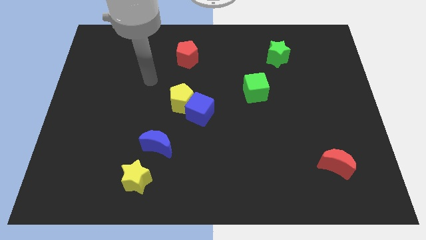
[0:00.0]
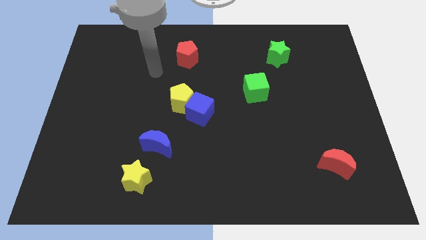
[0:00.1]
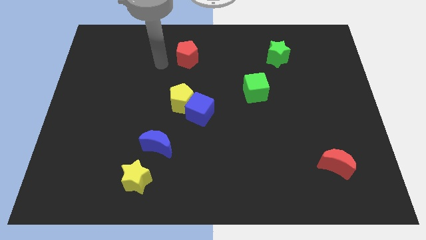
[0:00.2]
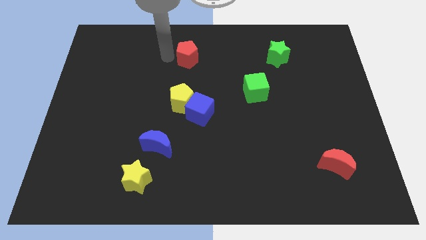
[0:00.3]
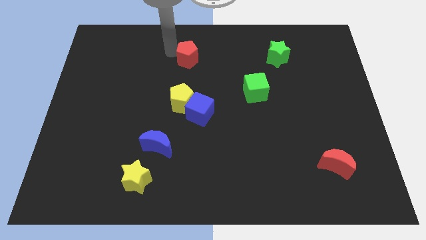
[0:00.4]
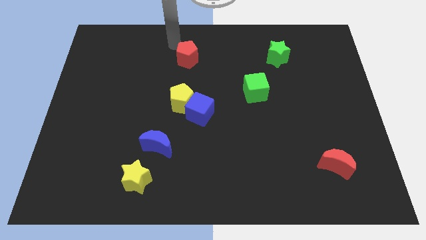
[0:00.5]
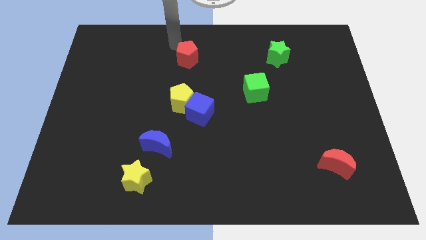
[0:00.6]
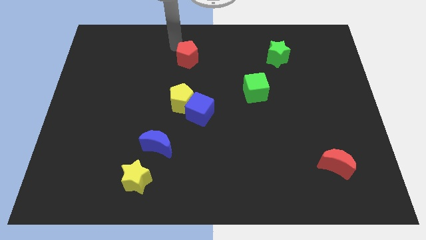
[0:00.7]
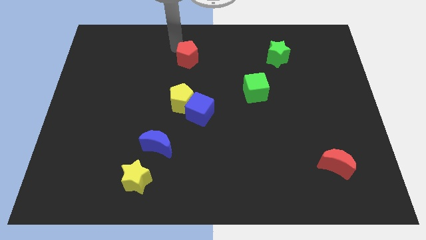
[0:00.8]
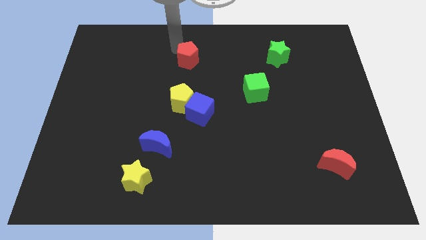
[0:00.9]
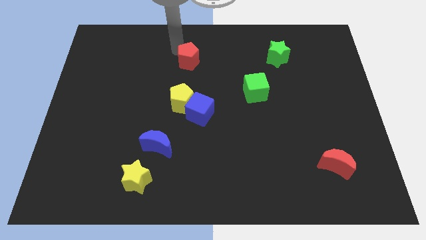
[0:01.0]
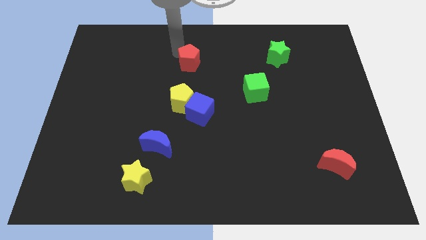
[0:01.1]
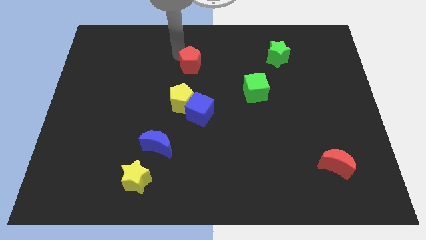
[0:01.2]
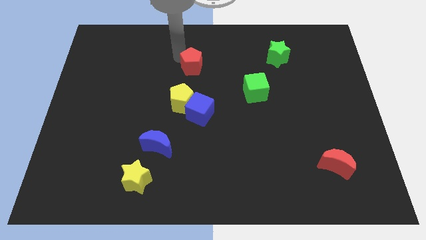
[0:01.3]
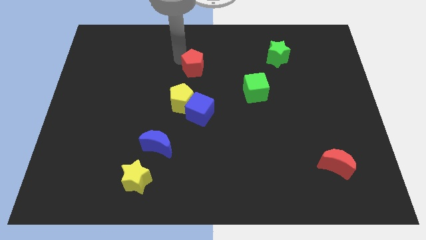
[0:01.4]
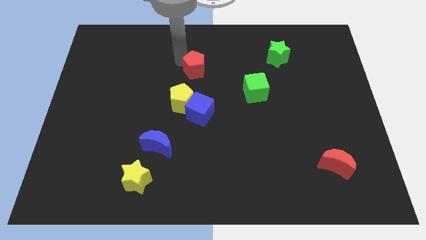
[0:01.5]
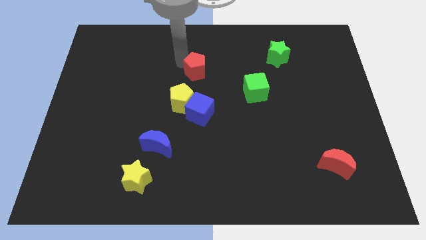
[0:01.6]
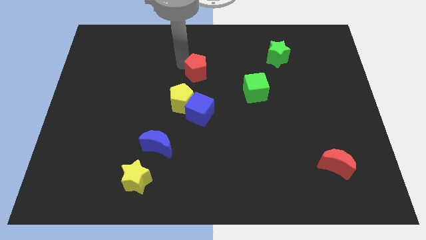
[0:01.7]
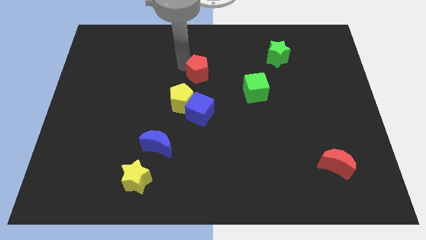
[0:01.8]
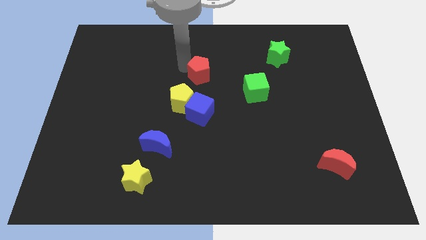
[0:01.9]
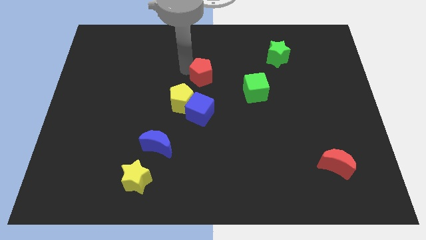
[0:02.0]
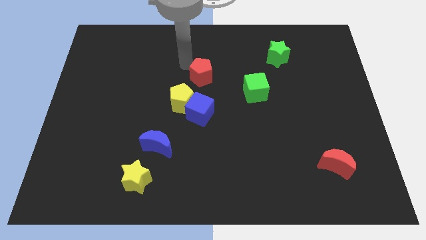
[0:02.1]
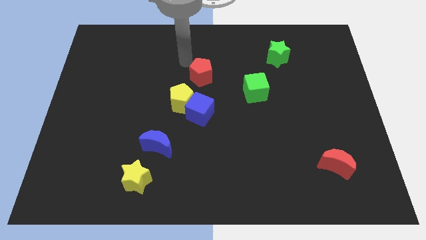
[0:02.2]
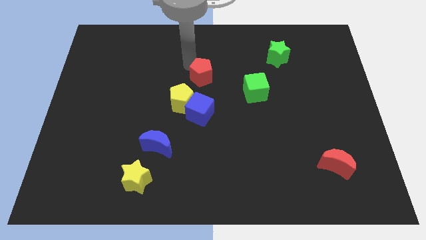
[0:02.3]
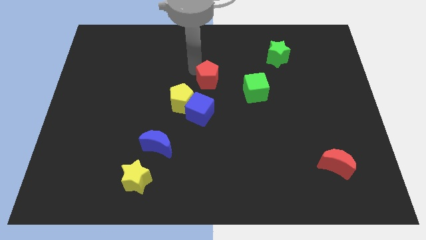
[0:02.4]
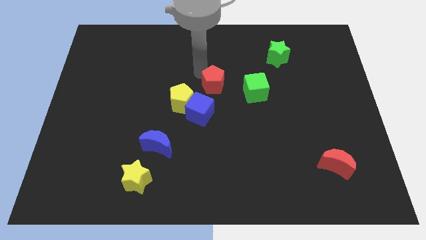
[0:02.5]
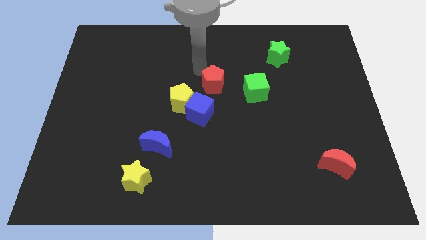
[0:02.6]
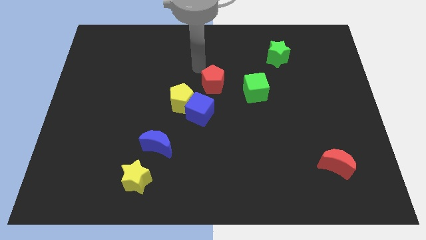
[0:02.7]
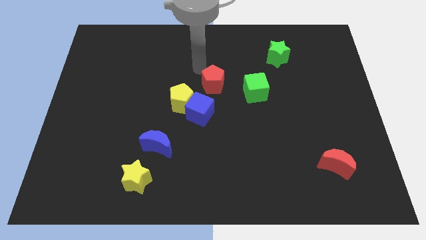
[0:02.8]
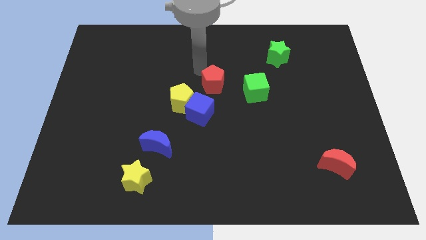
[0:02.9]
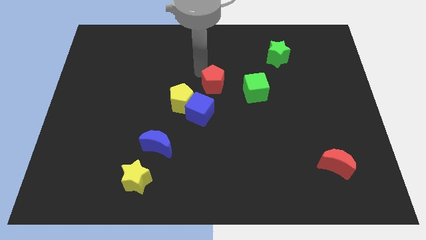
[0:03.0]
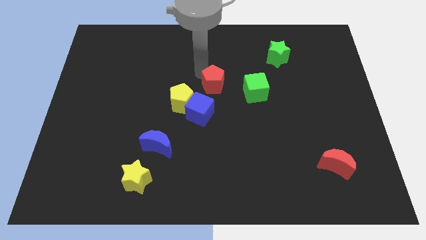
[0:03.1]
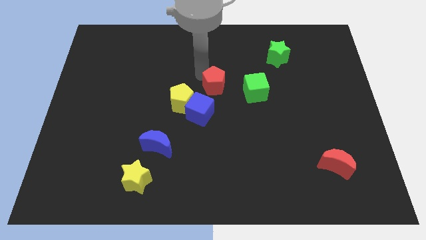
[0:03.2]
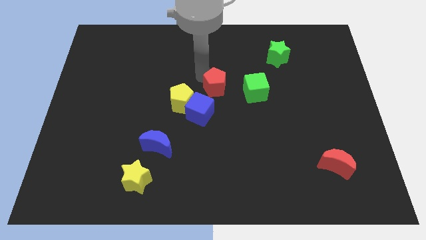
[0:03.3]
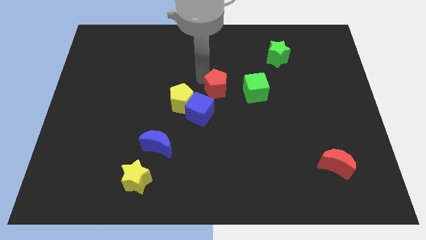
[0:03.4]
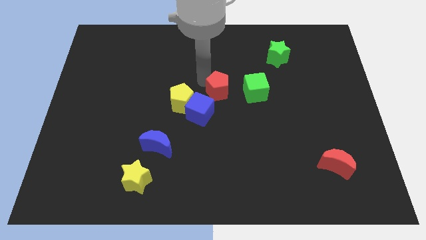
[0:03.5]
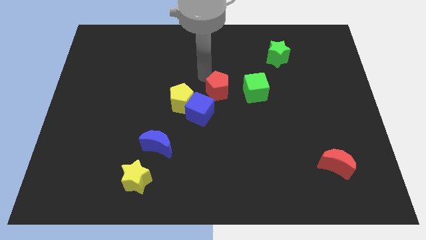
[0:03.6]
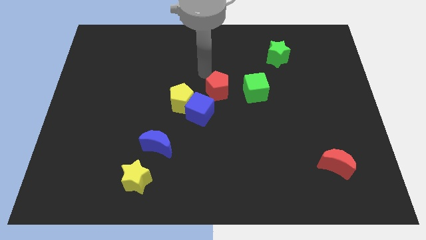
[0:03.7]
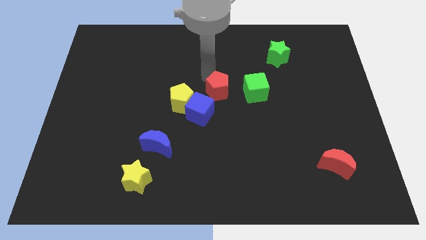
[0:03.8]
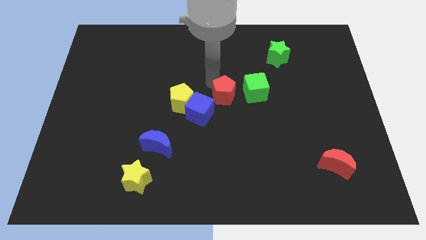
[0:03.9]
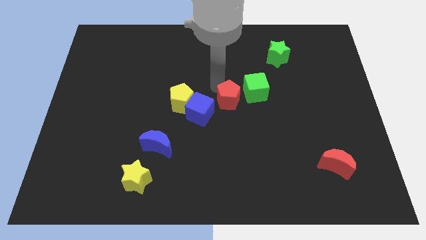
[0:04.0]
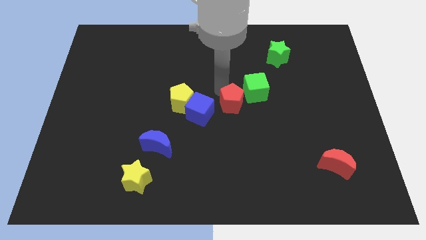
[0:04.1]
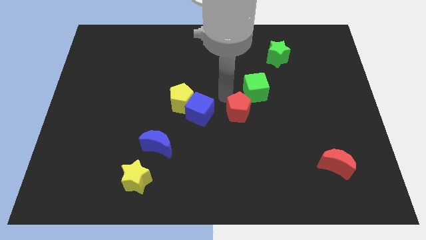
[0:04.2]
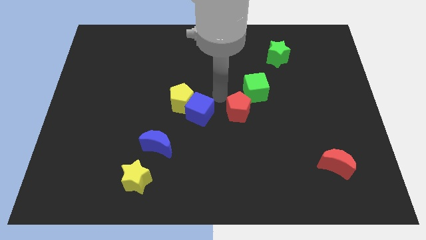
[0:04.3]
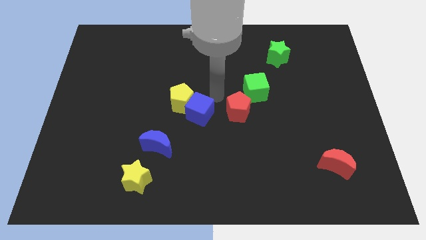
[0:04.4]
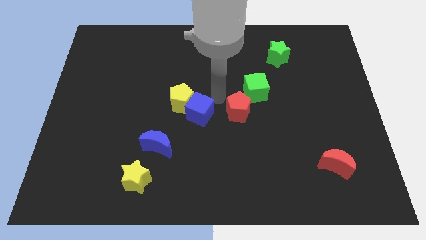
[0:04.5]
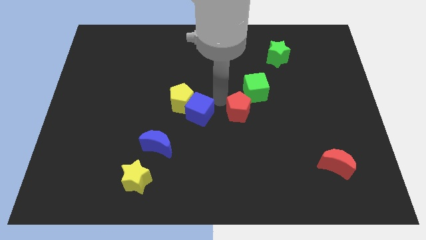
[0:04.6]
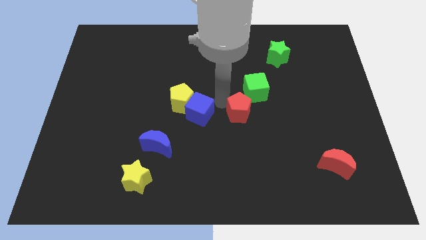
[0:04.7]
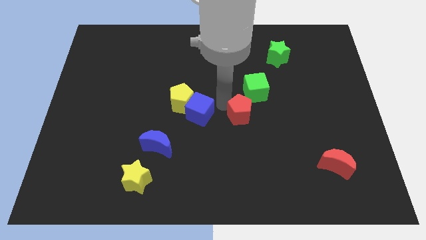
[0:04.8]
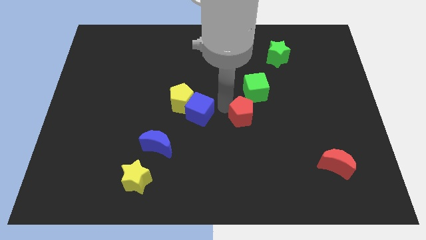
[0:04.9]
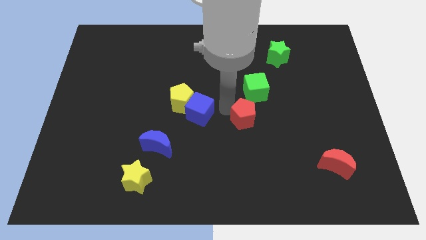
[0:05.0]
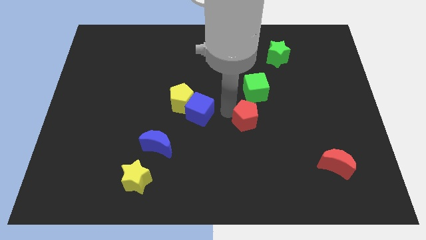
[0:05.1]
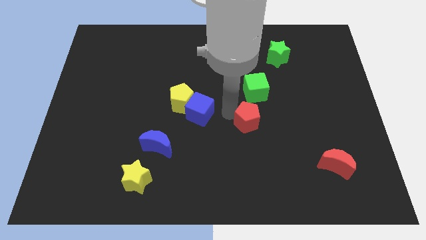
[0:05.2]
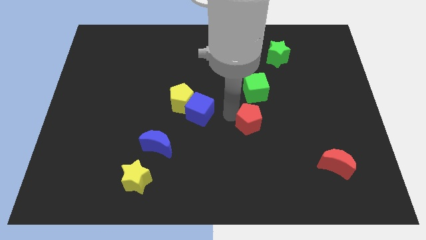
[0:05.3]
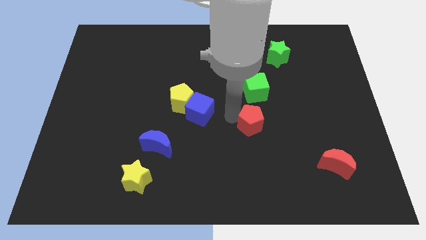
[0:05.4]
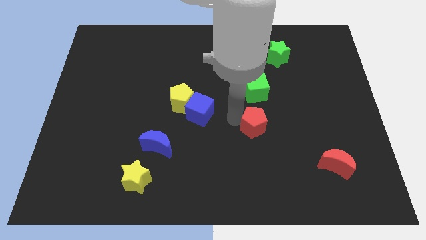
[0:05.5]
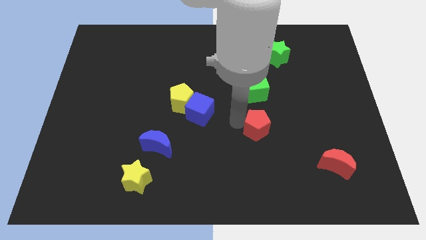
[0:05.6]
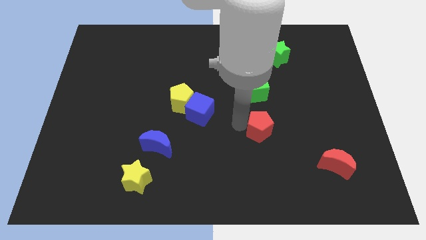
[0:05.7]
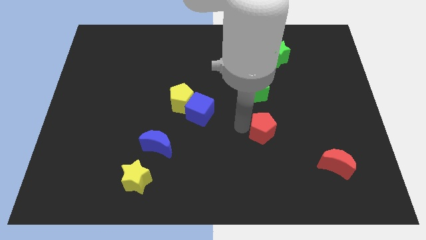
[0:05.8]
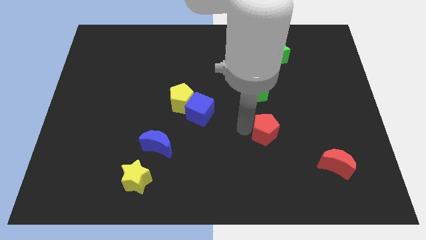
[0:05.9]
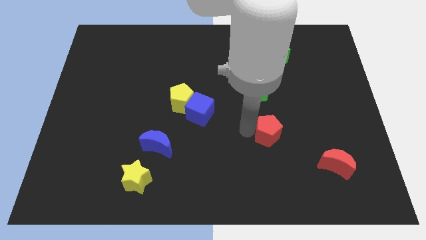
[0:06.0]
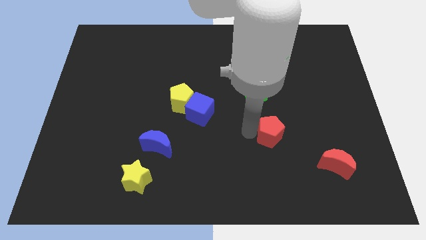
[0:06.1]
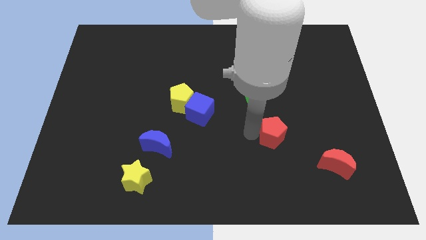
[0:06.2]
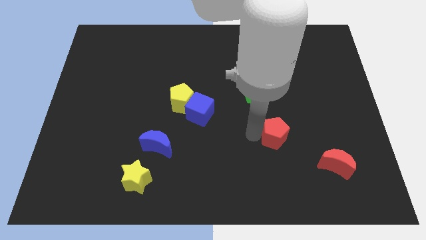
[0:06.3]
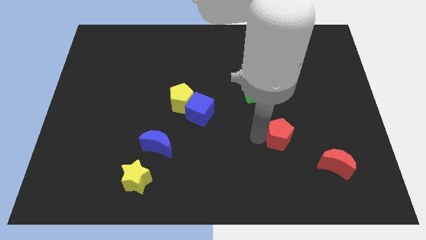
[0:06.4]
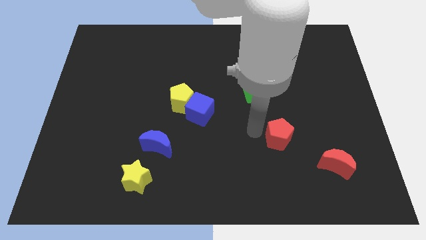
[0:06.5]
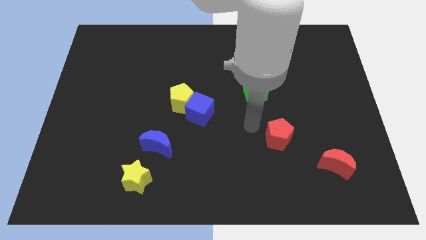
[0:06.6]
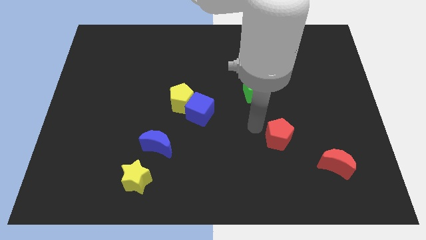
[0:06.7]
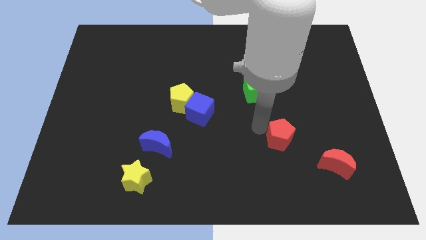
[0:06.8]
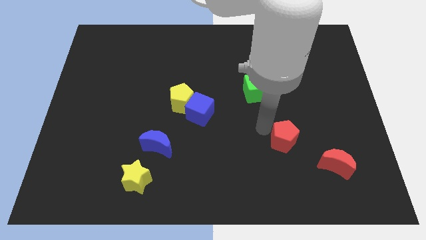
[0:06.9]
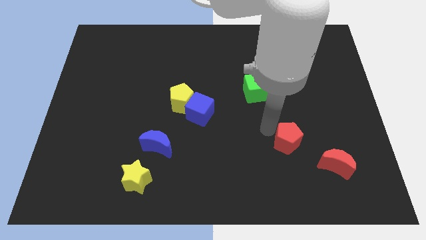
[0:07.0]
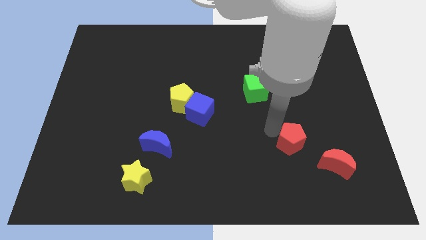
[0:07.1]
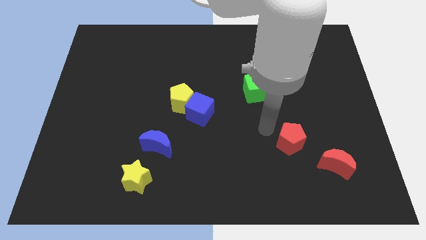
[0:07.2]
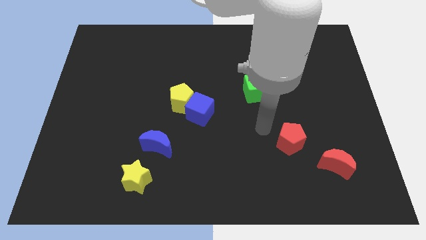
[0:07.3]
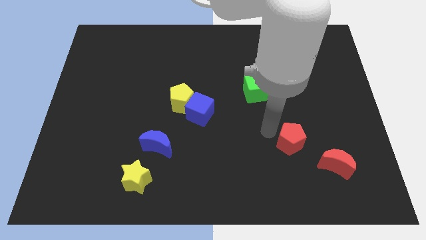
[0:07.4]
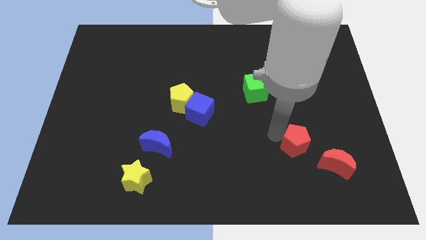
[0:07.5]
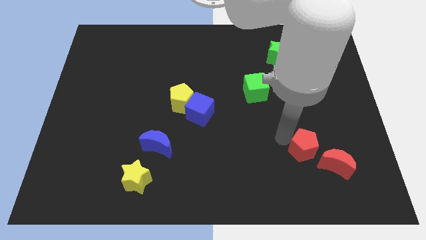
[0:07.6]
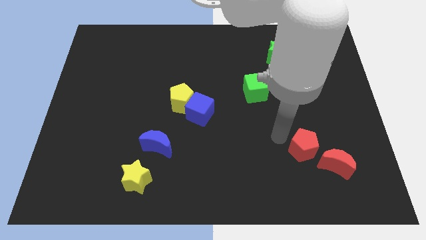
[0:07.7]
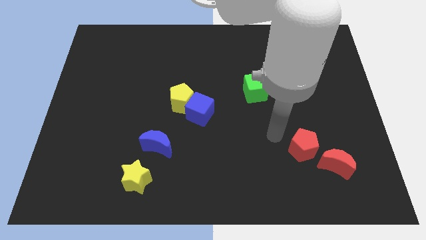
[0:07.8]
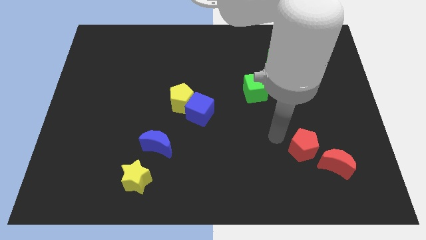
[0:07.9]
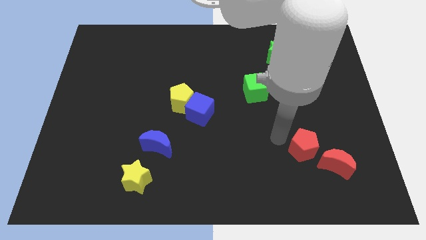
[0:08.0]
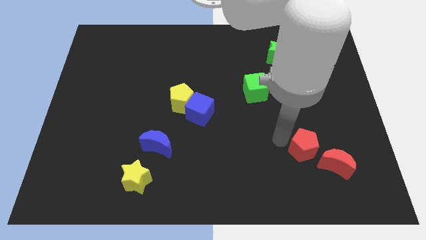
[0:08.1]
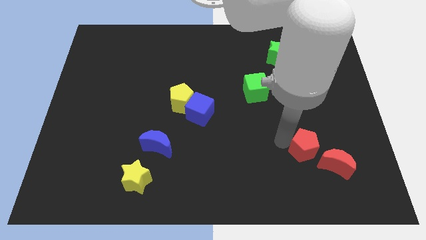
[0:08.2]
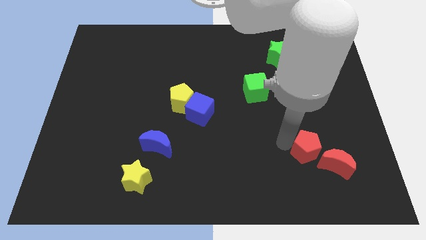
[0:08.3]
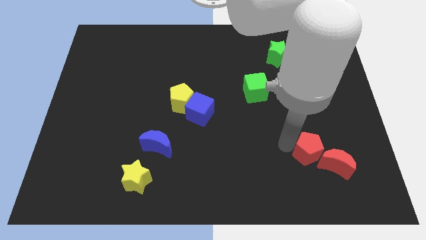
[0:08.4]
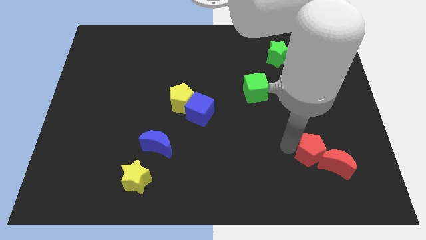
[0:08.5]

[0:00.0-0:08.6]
put the red pentagon next to the red moon
